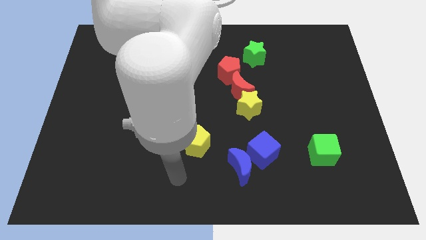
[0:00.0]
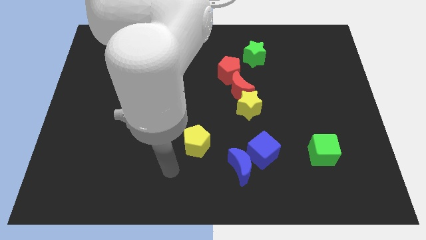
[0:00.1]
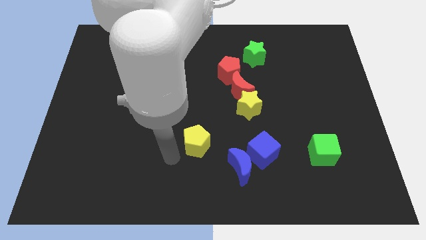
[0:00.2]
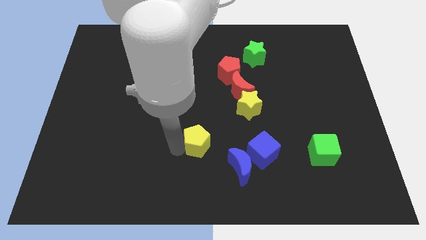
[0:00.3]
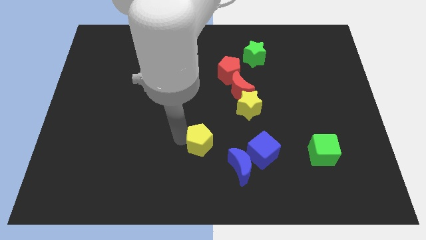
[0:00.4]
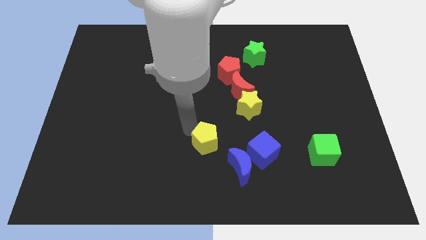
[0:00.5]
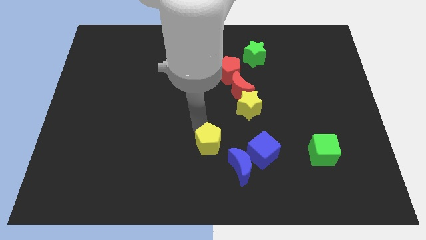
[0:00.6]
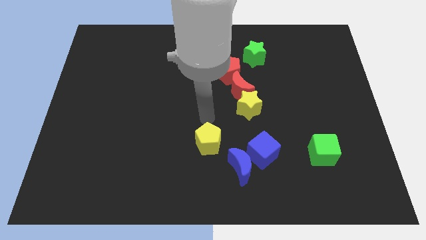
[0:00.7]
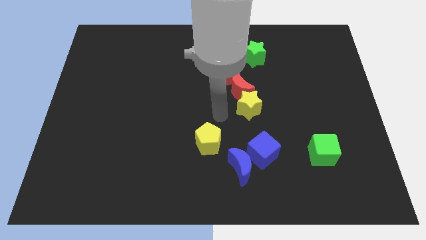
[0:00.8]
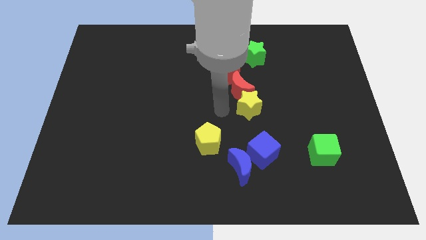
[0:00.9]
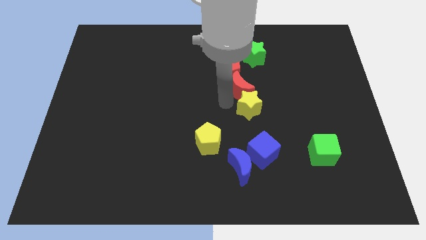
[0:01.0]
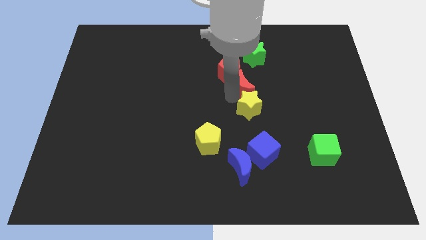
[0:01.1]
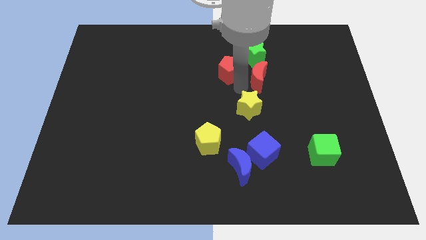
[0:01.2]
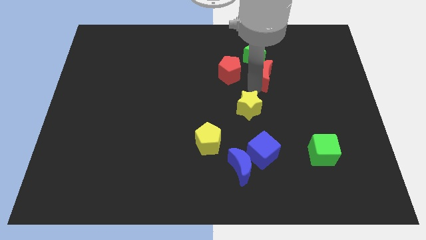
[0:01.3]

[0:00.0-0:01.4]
move the yellow star away from the red moon

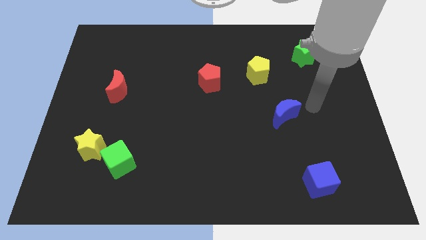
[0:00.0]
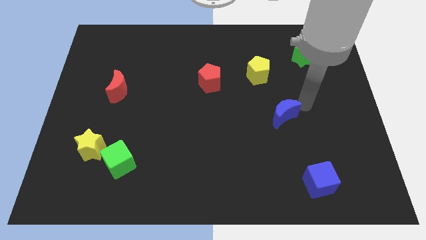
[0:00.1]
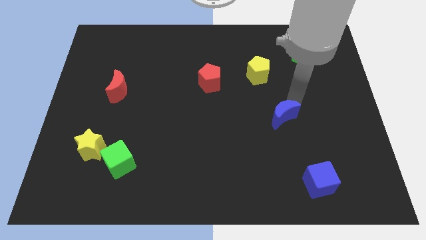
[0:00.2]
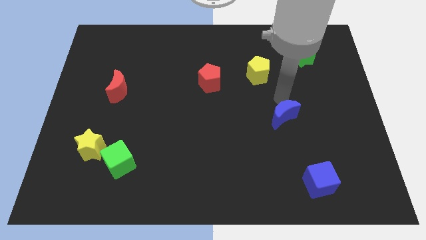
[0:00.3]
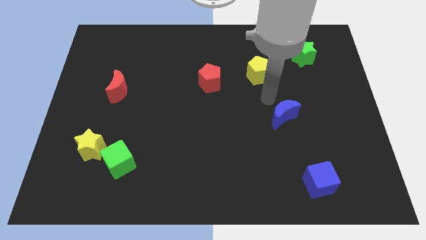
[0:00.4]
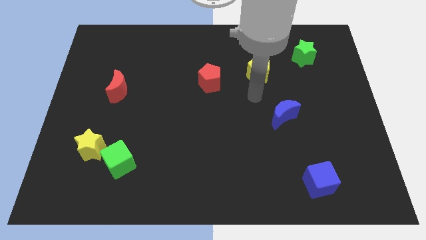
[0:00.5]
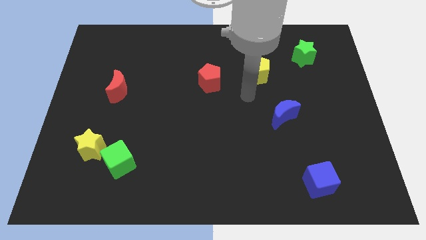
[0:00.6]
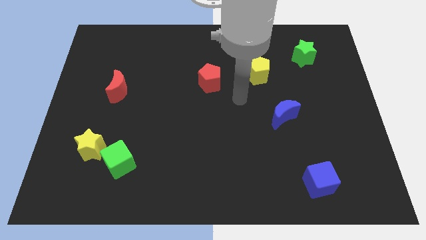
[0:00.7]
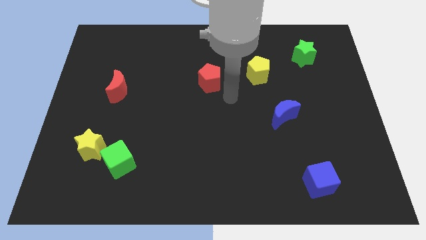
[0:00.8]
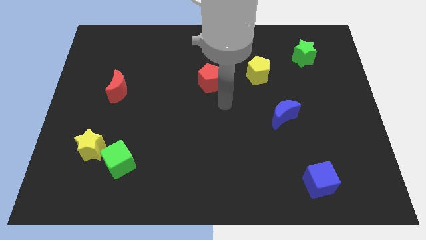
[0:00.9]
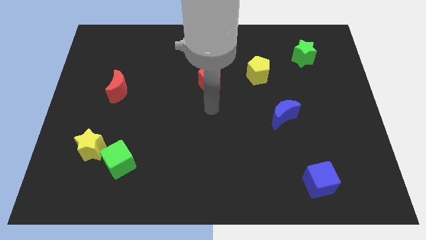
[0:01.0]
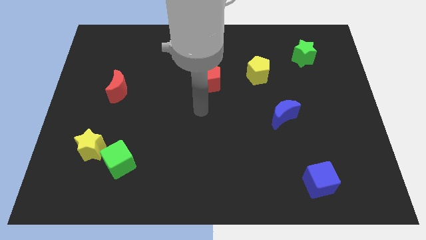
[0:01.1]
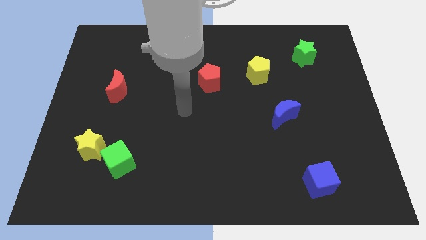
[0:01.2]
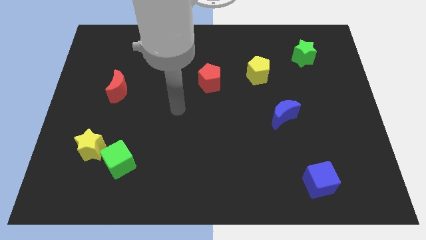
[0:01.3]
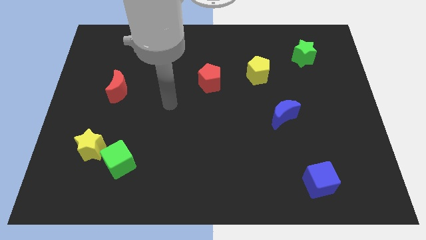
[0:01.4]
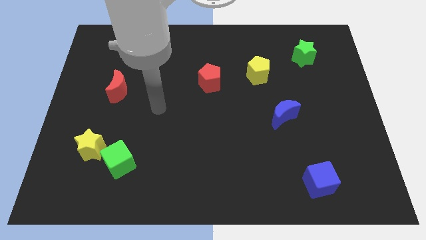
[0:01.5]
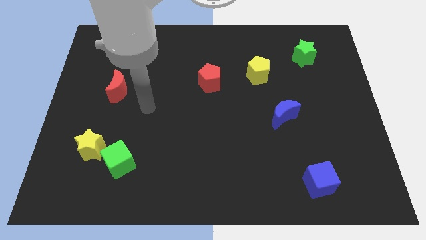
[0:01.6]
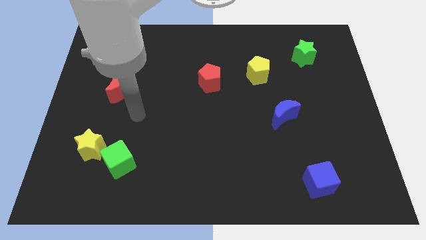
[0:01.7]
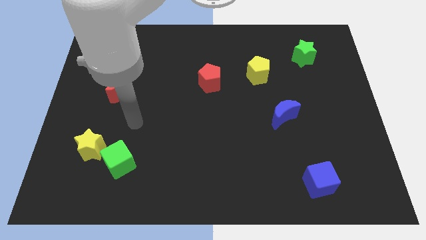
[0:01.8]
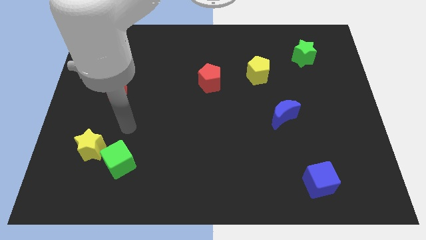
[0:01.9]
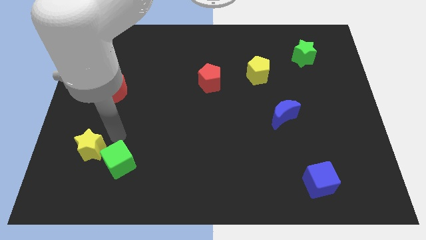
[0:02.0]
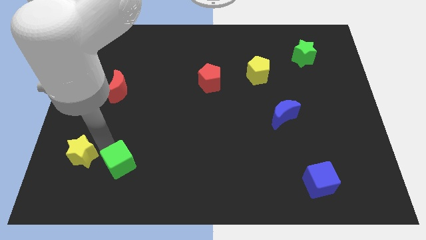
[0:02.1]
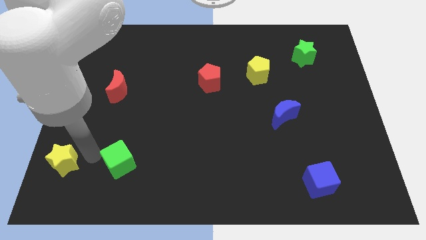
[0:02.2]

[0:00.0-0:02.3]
move the green cube away from the yellow star

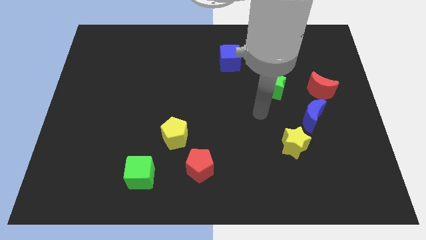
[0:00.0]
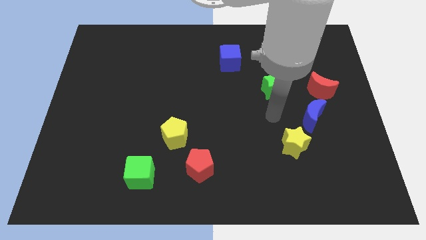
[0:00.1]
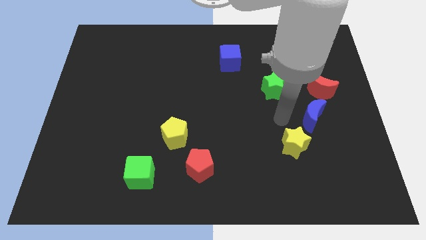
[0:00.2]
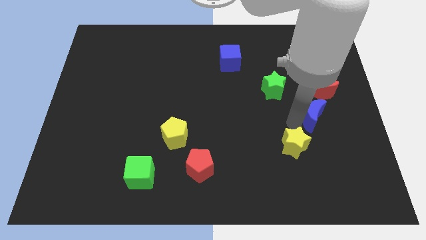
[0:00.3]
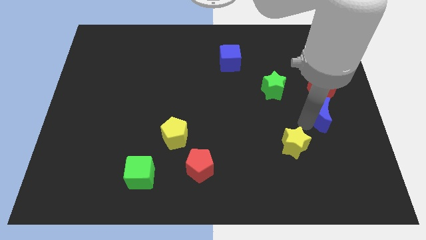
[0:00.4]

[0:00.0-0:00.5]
separate the yellow star from the blue moon

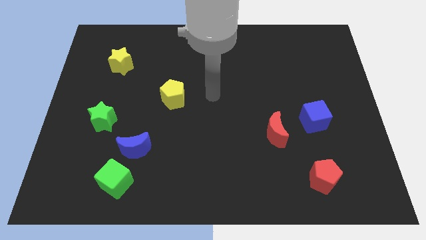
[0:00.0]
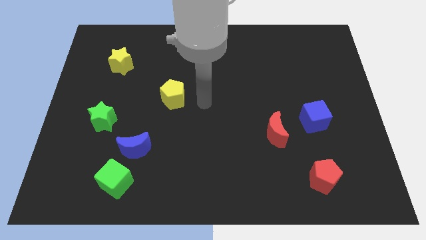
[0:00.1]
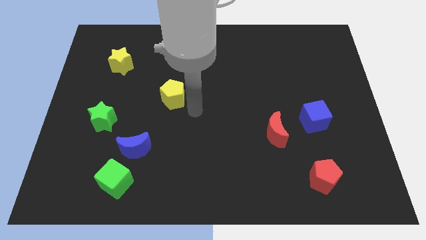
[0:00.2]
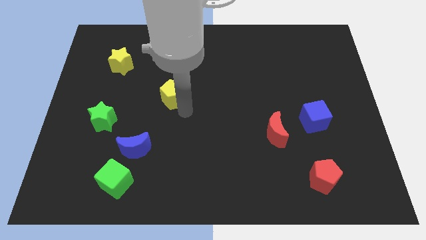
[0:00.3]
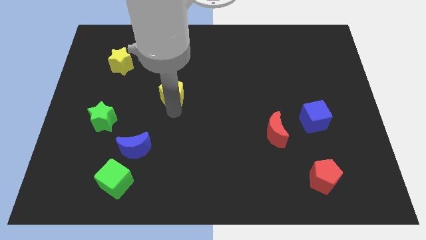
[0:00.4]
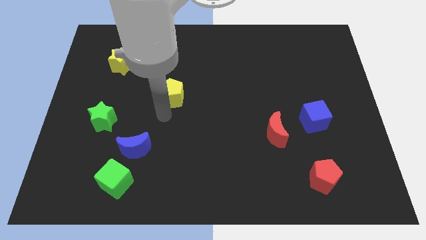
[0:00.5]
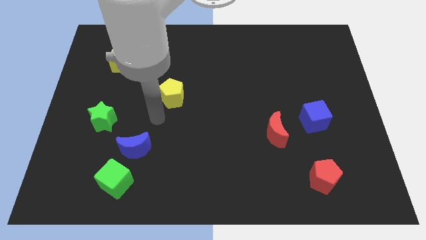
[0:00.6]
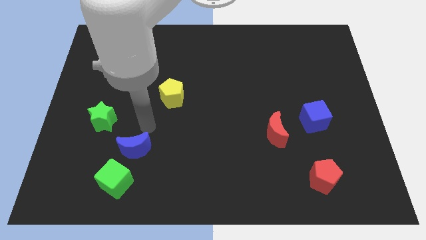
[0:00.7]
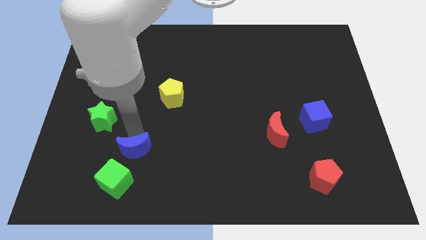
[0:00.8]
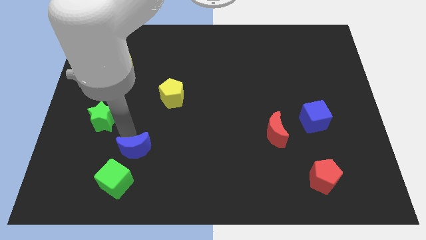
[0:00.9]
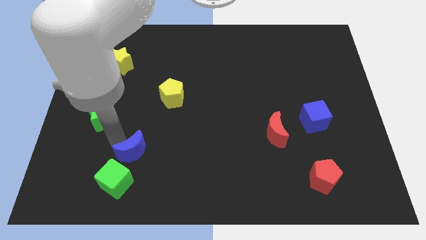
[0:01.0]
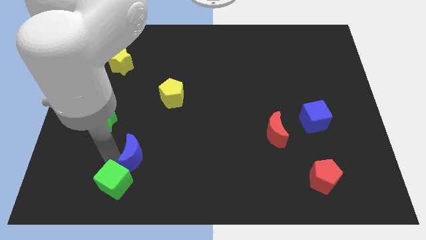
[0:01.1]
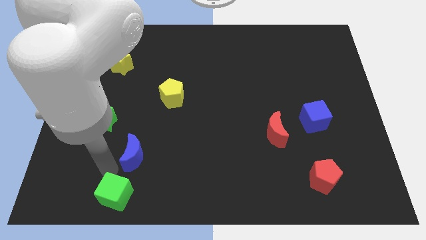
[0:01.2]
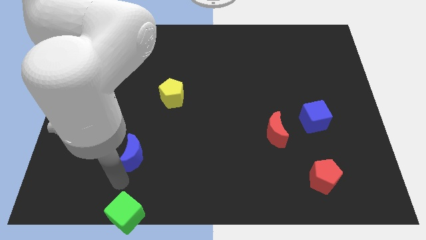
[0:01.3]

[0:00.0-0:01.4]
move the blue moon away from the green cube

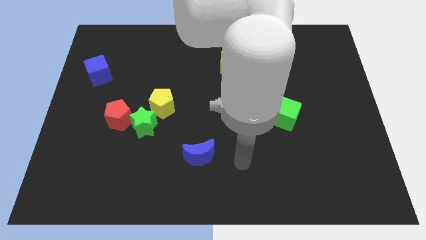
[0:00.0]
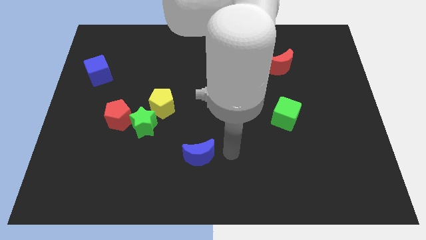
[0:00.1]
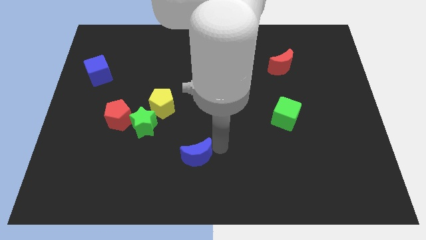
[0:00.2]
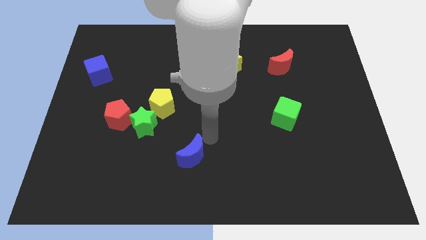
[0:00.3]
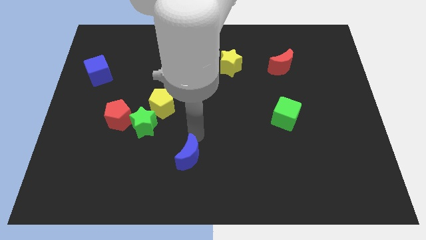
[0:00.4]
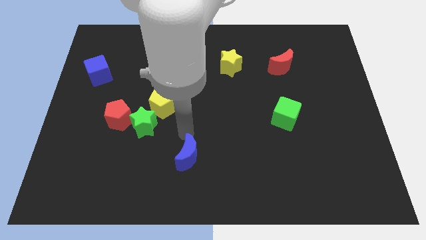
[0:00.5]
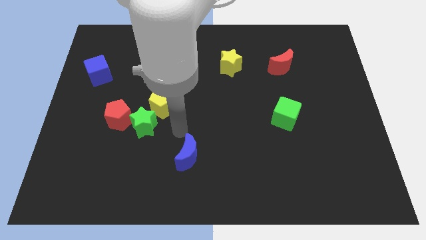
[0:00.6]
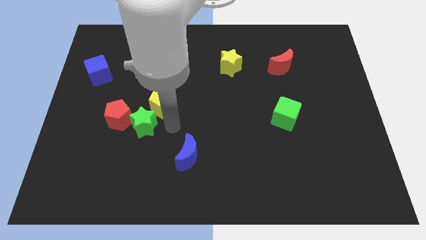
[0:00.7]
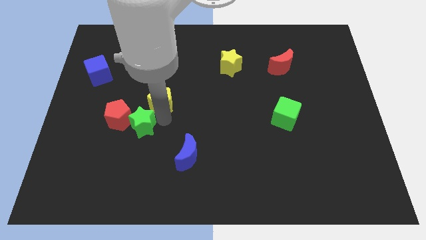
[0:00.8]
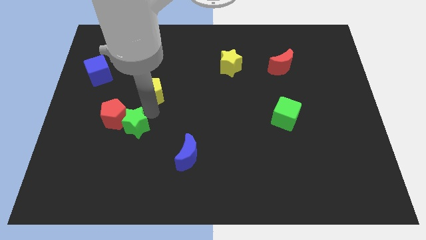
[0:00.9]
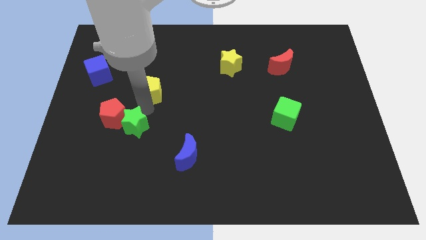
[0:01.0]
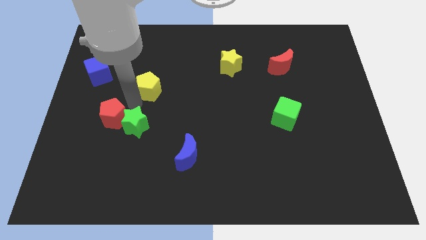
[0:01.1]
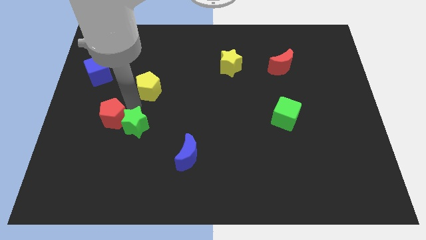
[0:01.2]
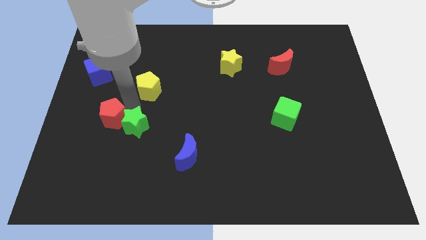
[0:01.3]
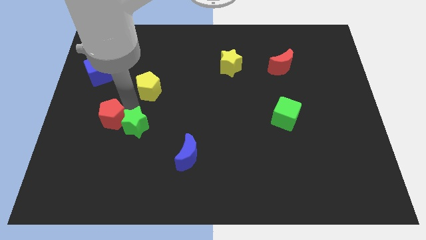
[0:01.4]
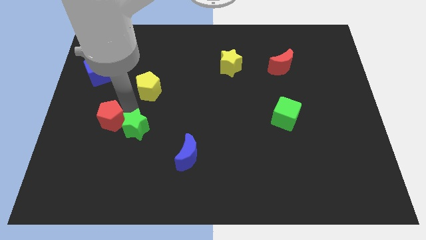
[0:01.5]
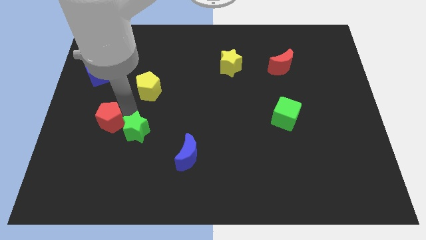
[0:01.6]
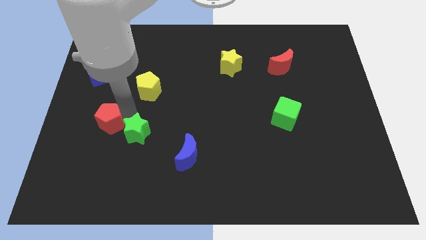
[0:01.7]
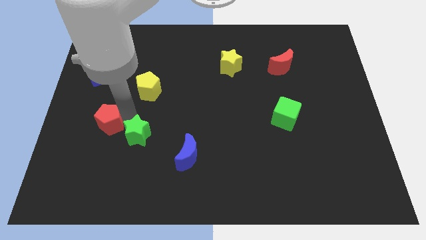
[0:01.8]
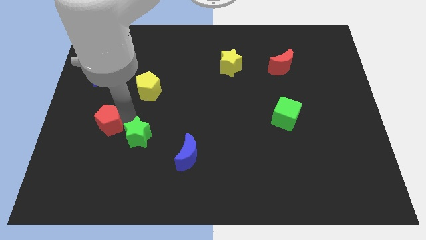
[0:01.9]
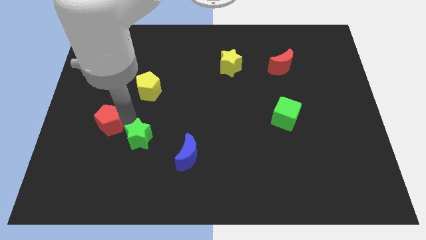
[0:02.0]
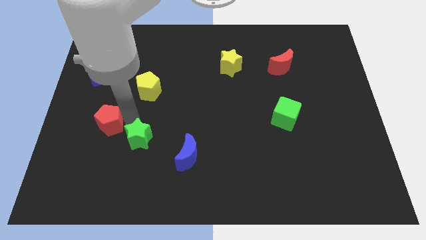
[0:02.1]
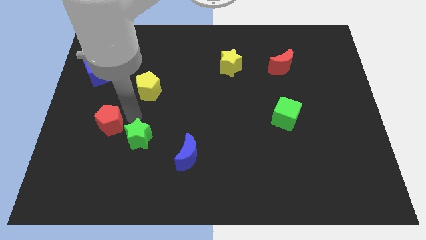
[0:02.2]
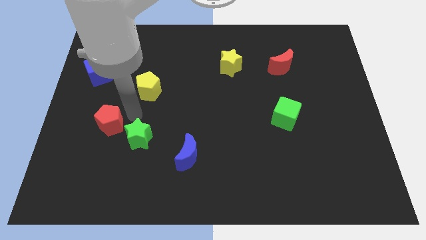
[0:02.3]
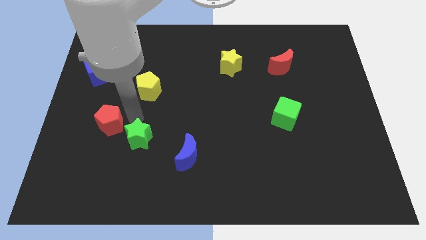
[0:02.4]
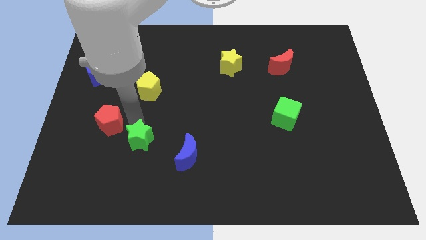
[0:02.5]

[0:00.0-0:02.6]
pull the green star apart from the red pentagon and yellow pentagon

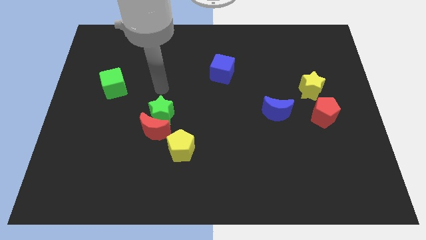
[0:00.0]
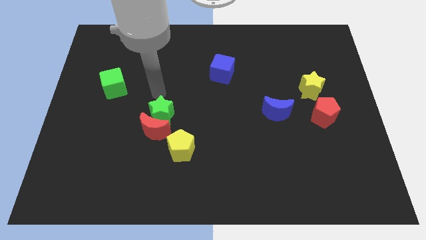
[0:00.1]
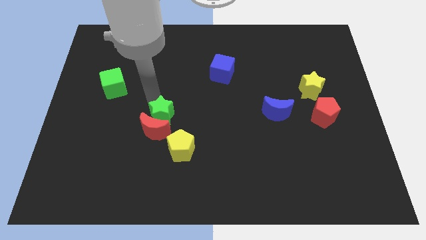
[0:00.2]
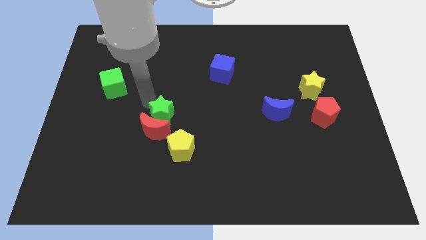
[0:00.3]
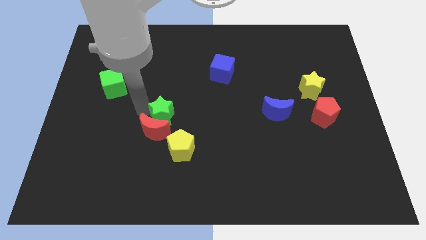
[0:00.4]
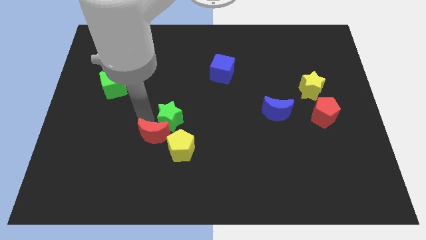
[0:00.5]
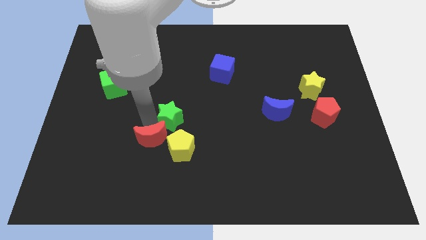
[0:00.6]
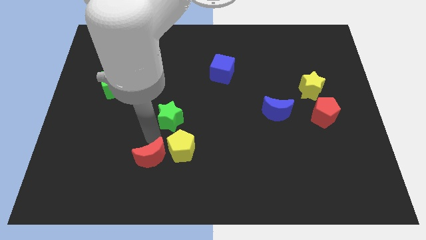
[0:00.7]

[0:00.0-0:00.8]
move the green star away from the red moon

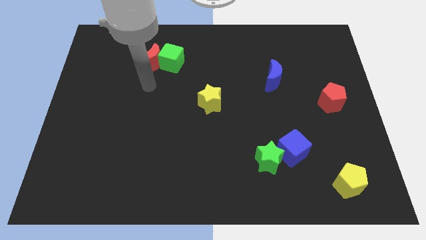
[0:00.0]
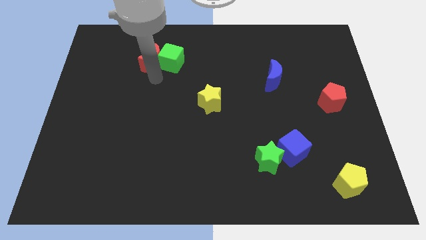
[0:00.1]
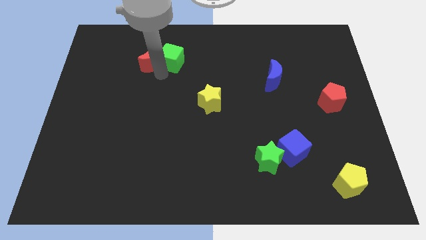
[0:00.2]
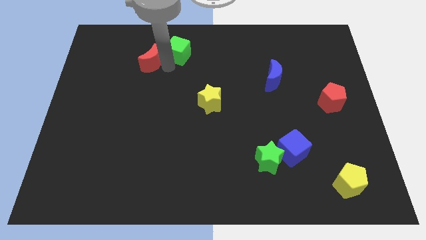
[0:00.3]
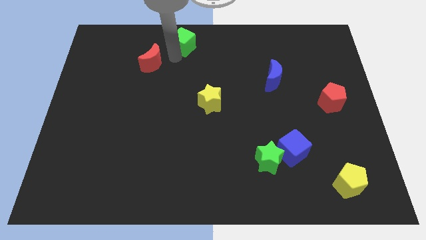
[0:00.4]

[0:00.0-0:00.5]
separate the red moon from the green cube
